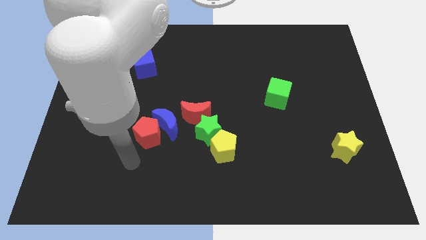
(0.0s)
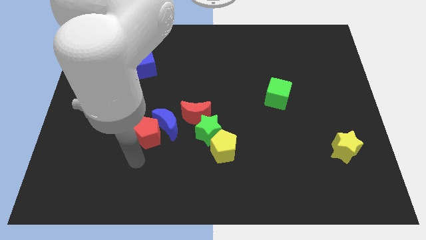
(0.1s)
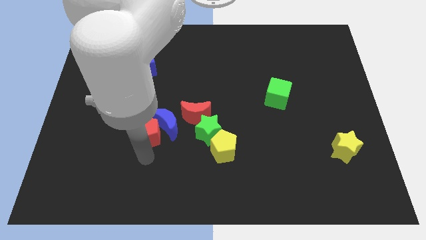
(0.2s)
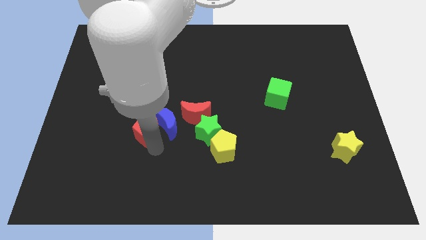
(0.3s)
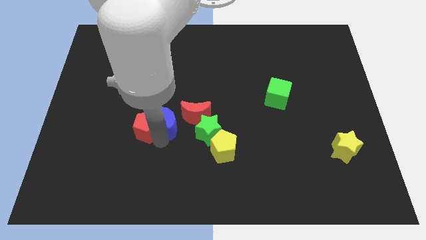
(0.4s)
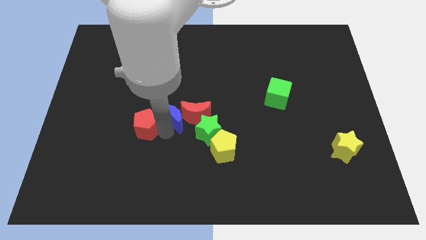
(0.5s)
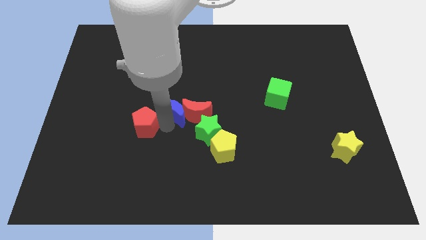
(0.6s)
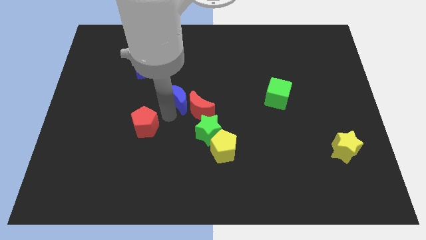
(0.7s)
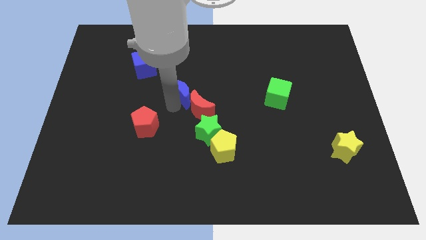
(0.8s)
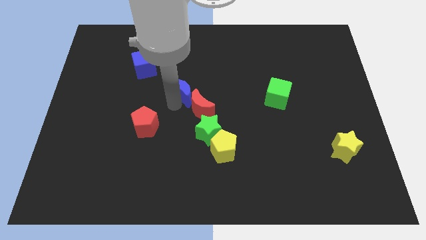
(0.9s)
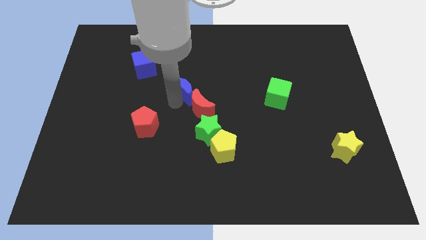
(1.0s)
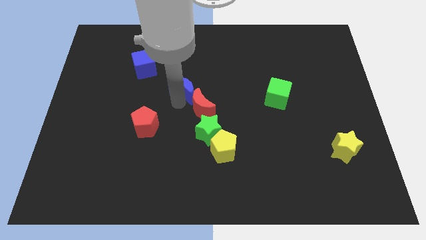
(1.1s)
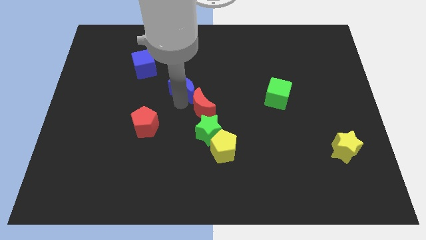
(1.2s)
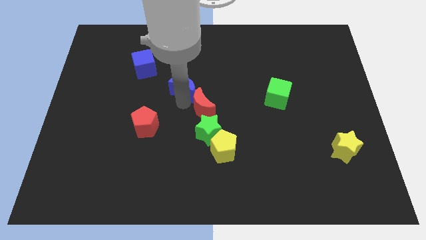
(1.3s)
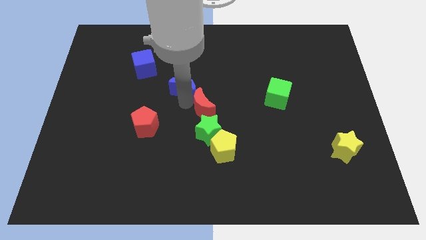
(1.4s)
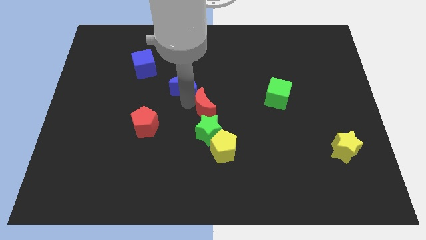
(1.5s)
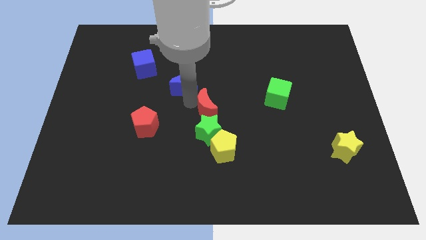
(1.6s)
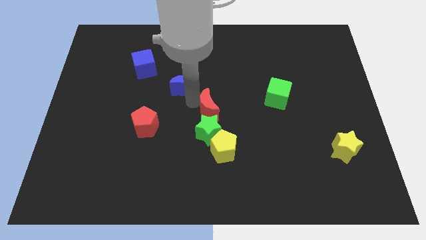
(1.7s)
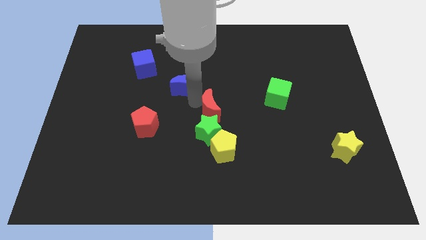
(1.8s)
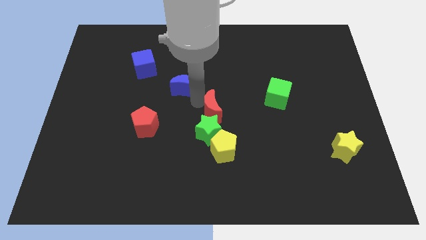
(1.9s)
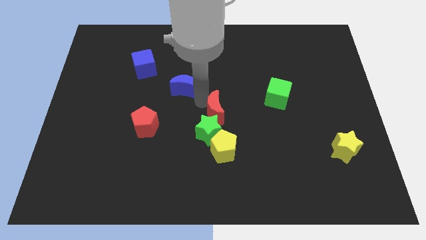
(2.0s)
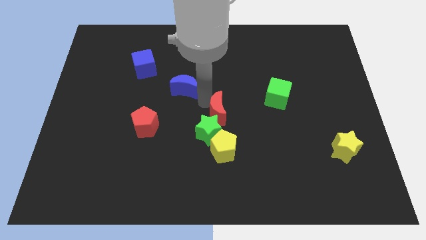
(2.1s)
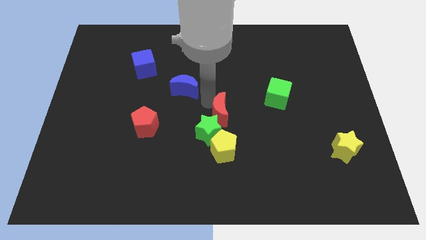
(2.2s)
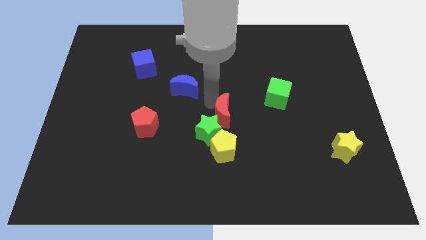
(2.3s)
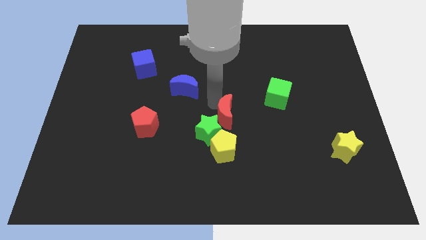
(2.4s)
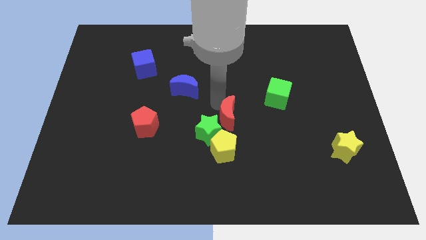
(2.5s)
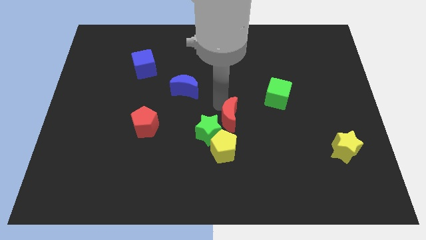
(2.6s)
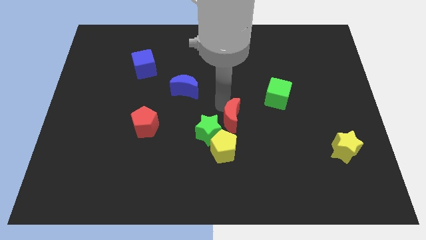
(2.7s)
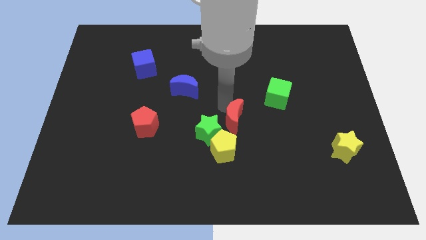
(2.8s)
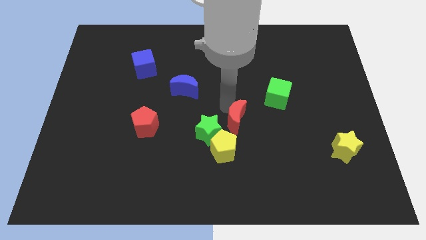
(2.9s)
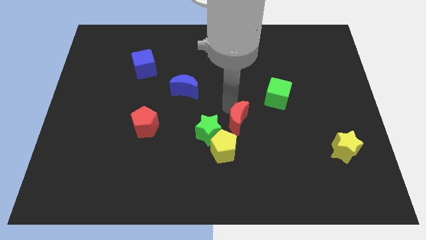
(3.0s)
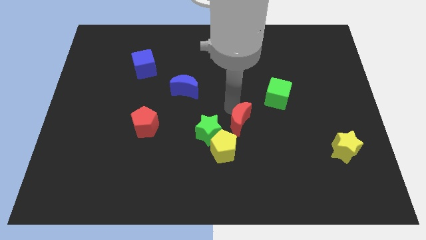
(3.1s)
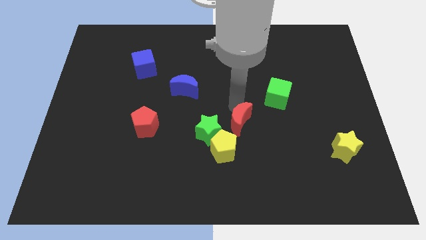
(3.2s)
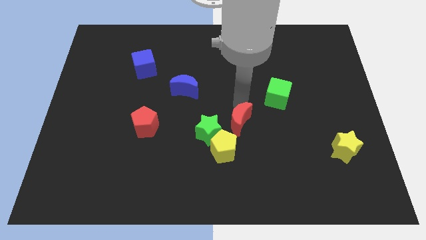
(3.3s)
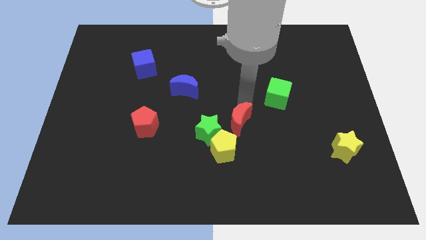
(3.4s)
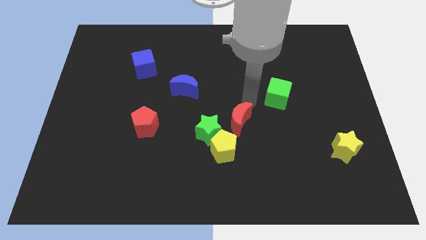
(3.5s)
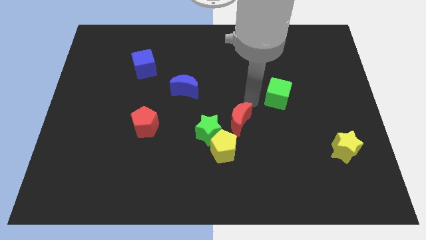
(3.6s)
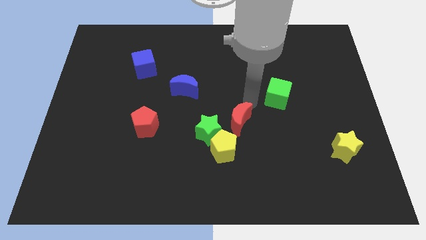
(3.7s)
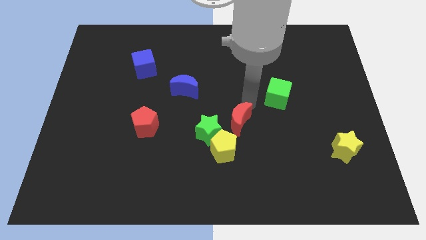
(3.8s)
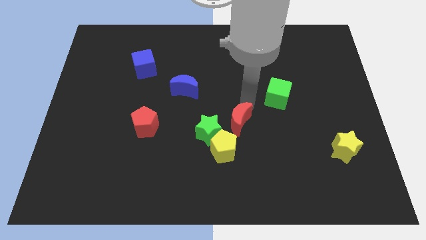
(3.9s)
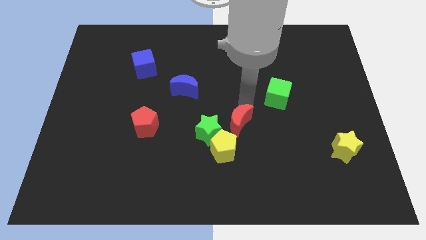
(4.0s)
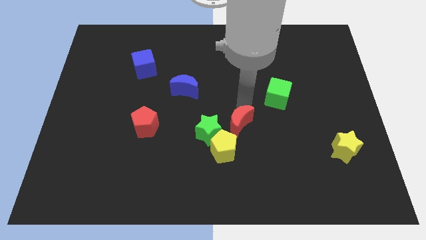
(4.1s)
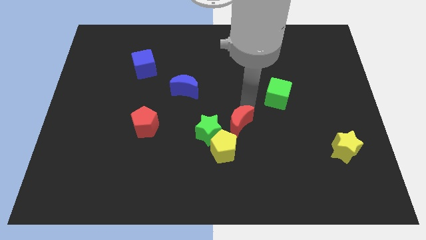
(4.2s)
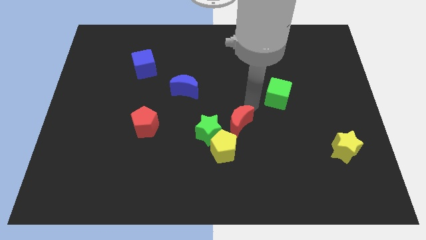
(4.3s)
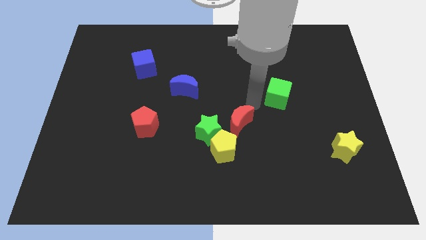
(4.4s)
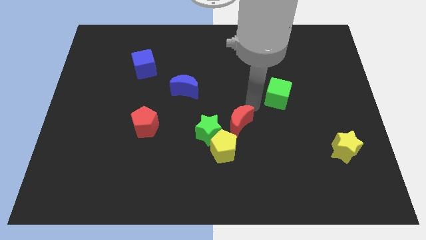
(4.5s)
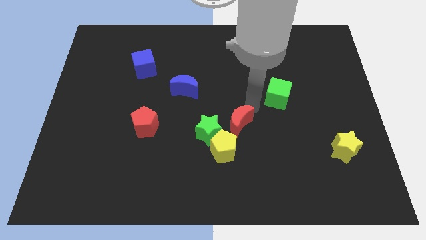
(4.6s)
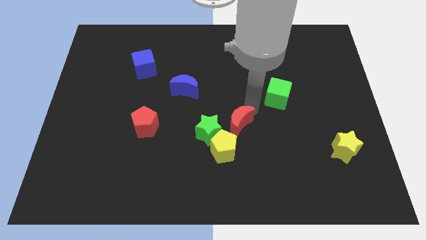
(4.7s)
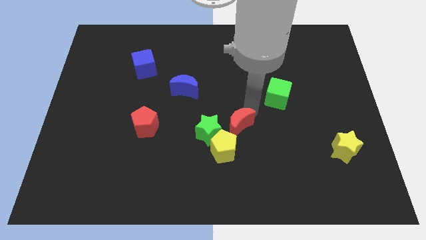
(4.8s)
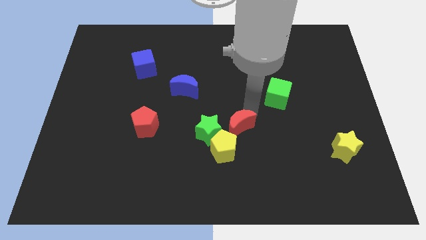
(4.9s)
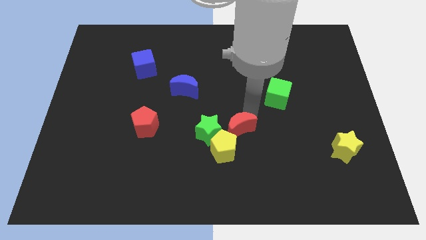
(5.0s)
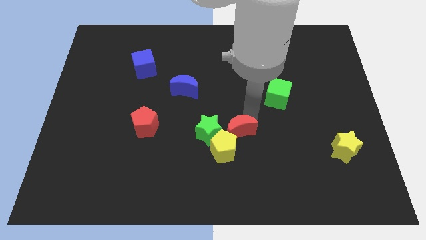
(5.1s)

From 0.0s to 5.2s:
put the red moon next to the yellow pentagon

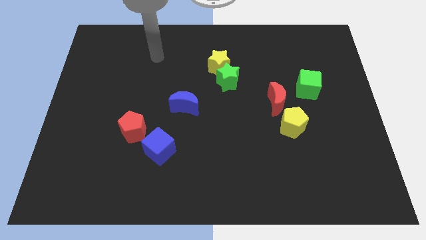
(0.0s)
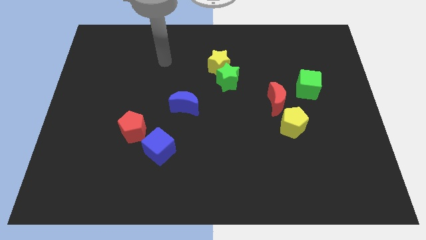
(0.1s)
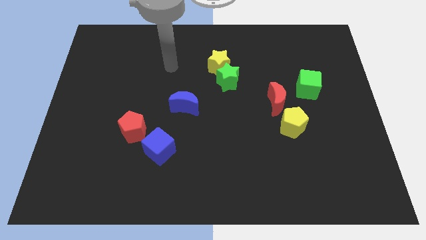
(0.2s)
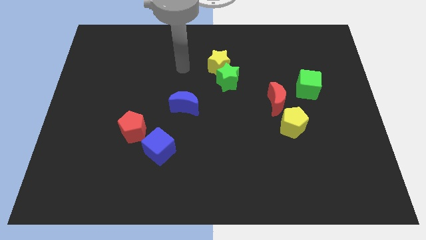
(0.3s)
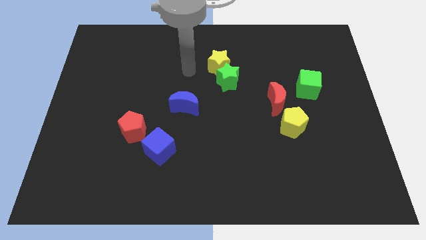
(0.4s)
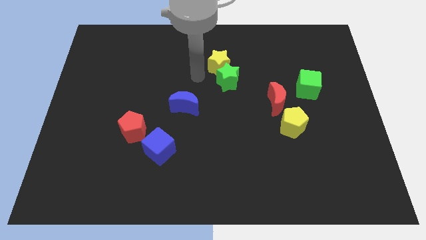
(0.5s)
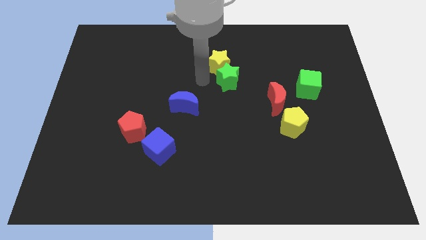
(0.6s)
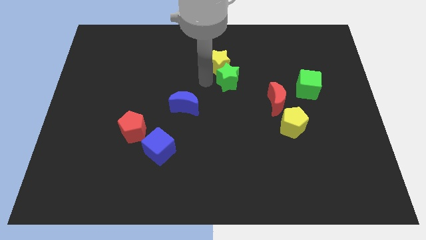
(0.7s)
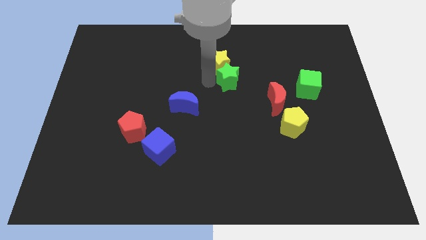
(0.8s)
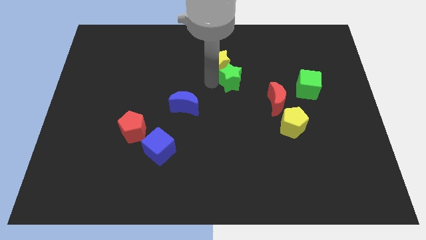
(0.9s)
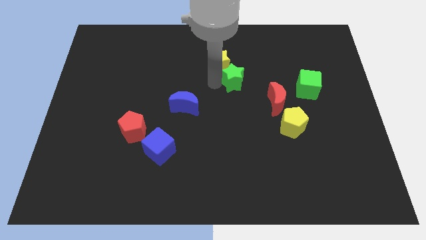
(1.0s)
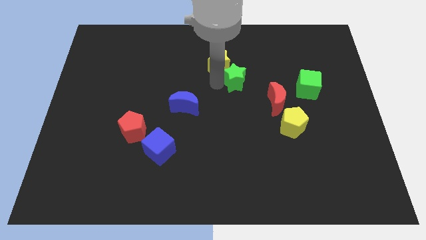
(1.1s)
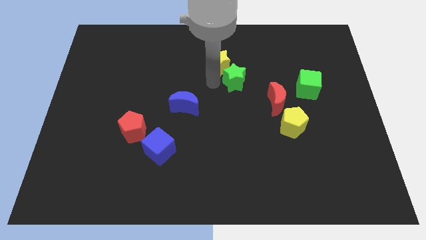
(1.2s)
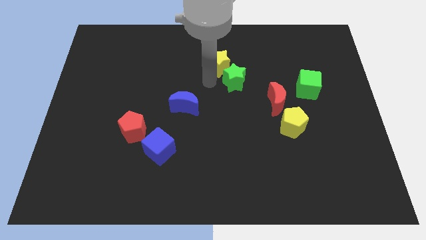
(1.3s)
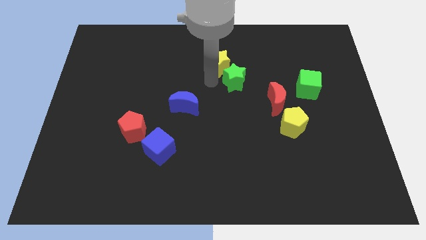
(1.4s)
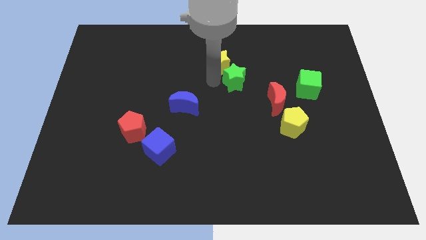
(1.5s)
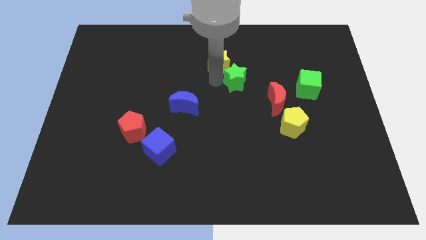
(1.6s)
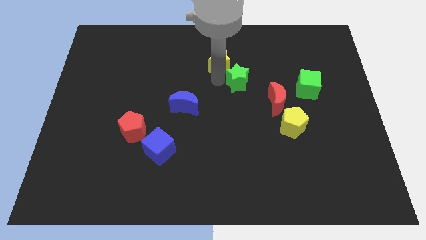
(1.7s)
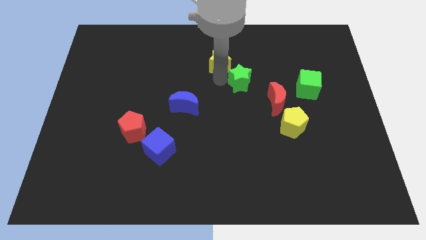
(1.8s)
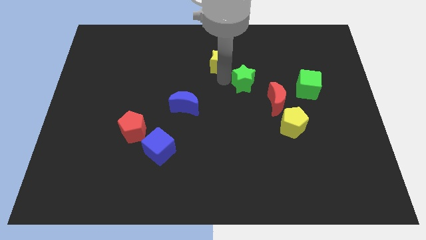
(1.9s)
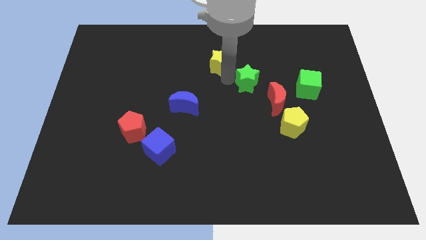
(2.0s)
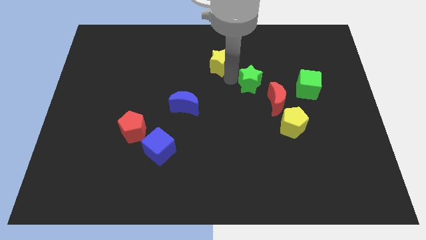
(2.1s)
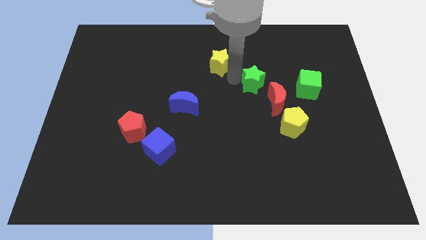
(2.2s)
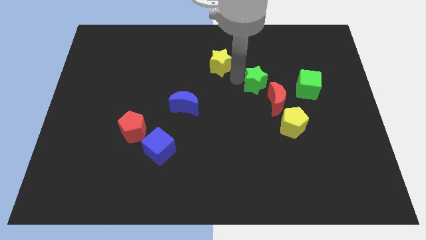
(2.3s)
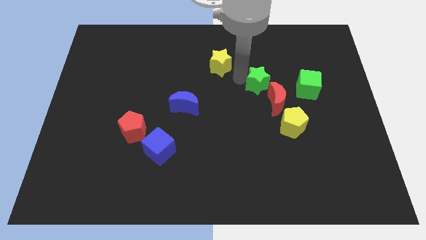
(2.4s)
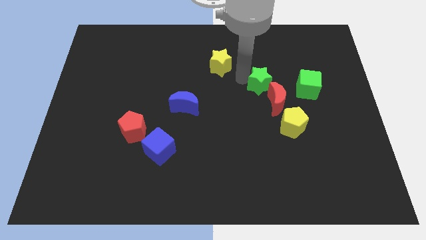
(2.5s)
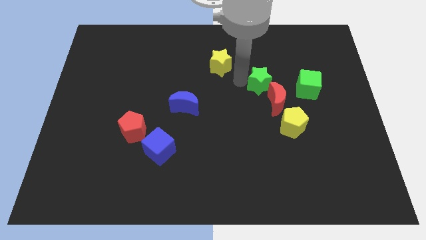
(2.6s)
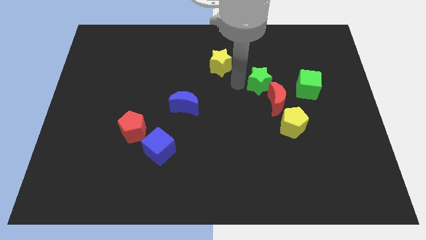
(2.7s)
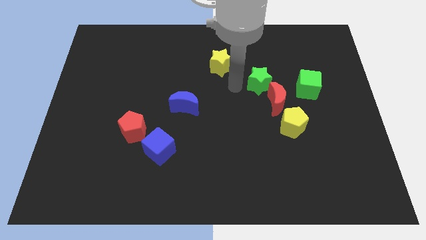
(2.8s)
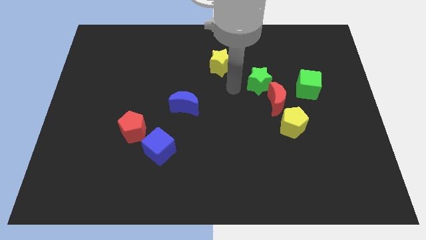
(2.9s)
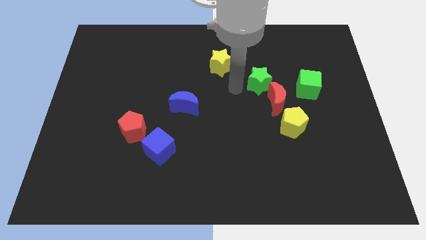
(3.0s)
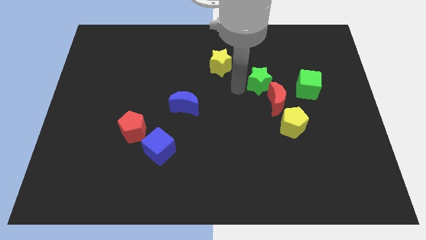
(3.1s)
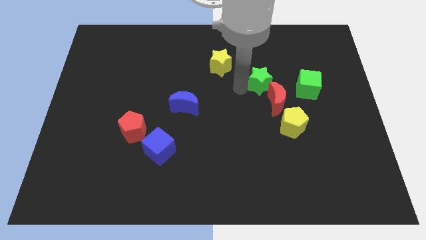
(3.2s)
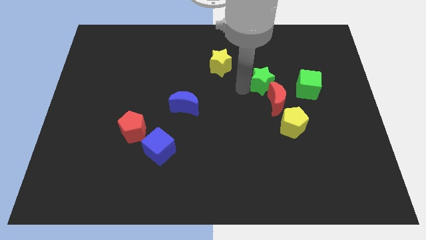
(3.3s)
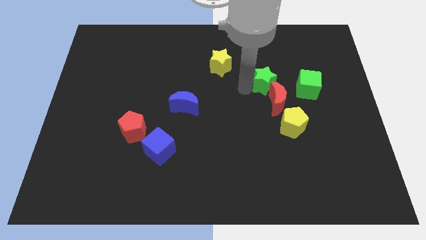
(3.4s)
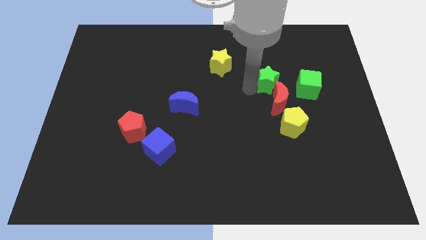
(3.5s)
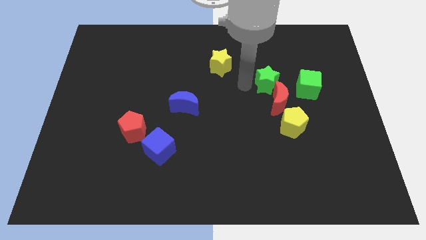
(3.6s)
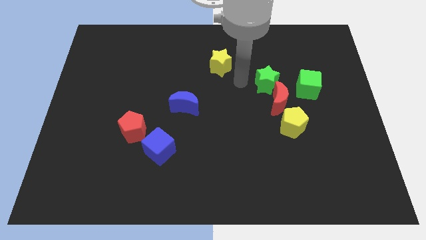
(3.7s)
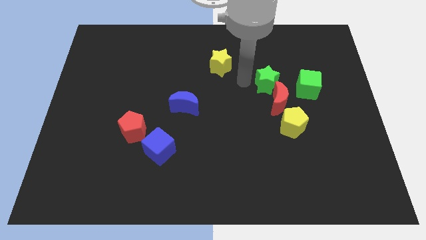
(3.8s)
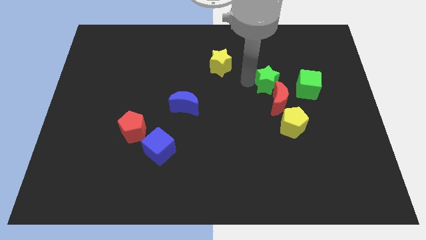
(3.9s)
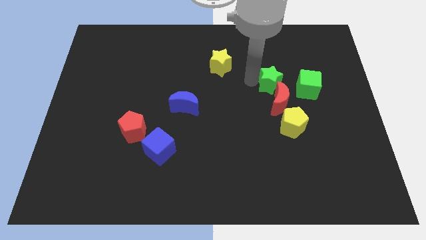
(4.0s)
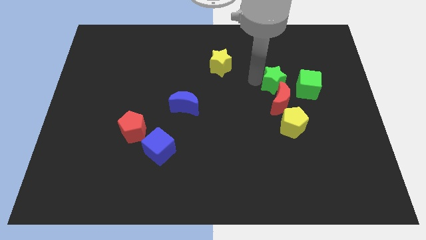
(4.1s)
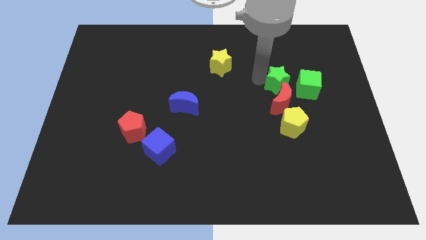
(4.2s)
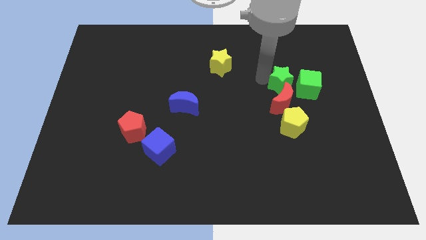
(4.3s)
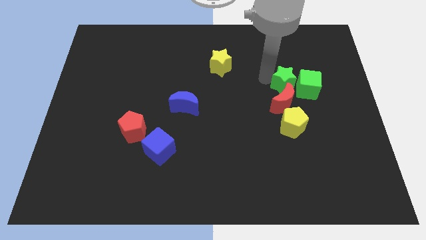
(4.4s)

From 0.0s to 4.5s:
move the green star next to the green cube
